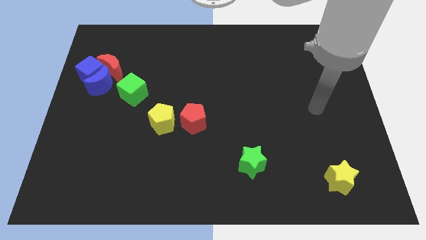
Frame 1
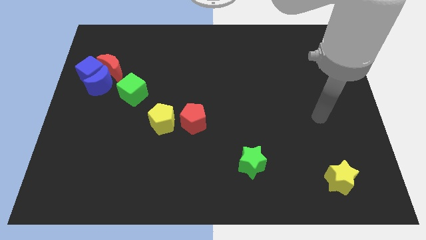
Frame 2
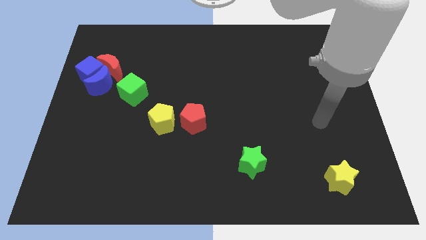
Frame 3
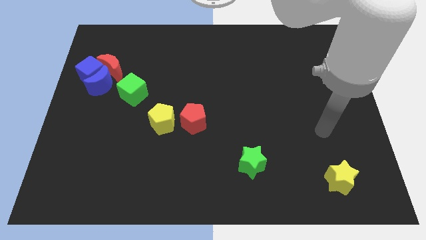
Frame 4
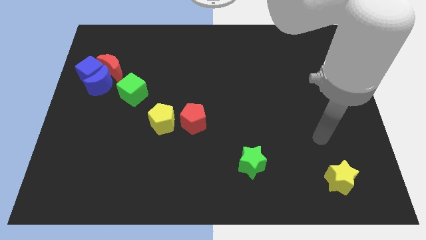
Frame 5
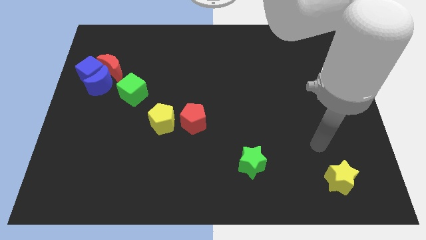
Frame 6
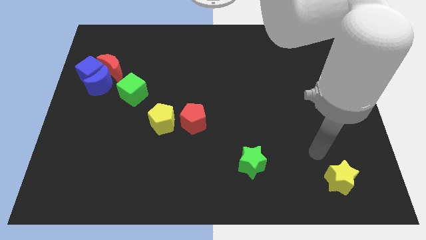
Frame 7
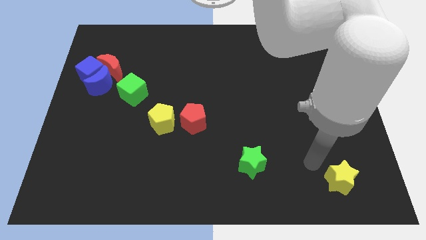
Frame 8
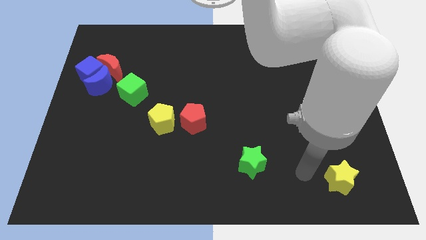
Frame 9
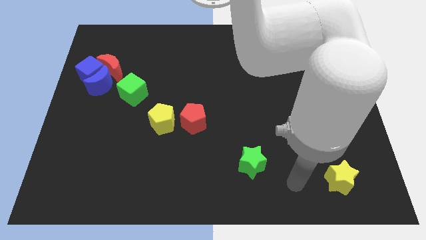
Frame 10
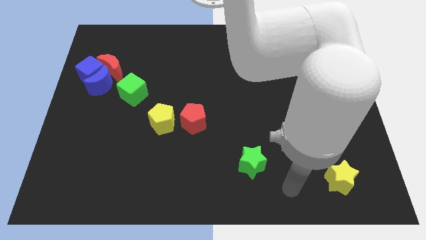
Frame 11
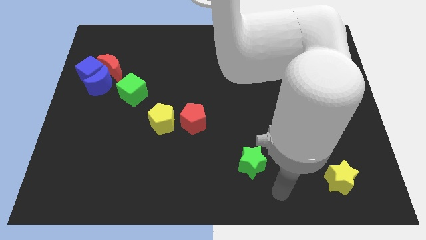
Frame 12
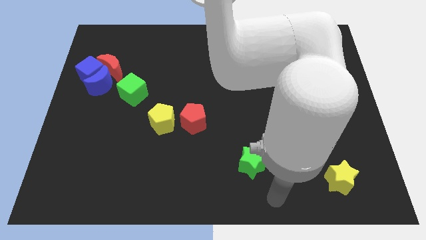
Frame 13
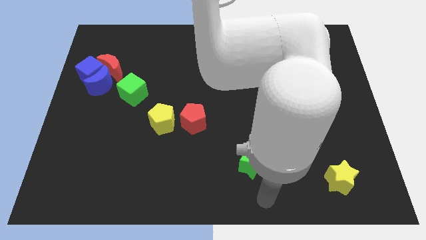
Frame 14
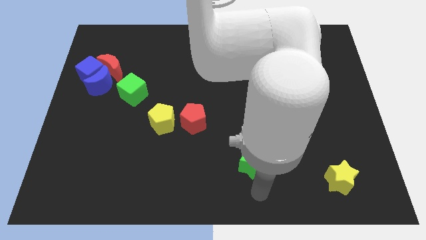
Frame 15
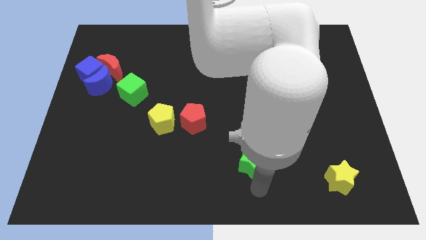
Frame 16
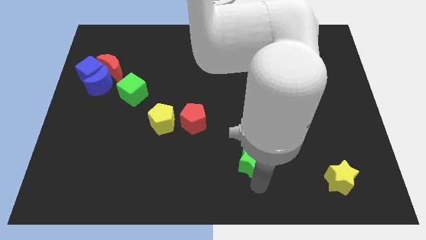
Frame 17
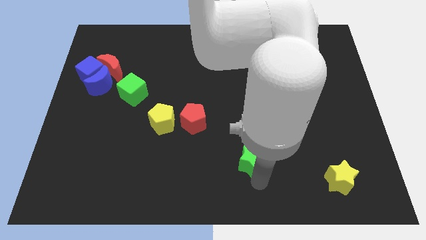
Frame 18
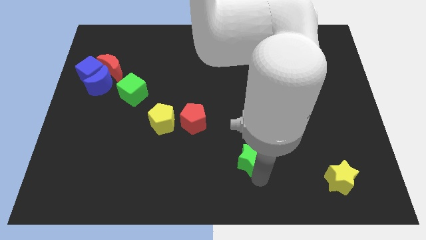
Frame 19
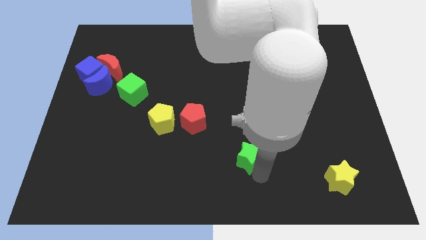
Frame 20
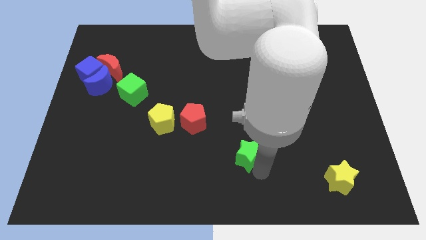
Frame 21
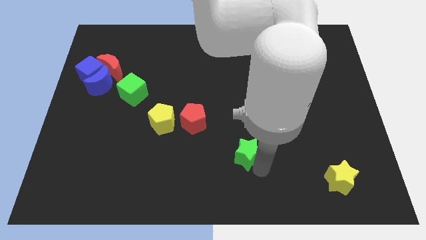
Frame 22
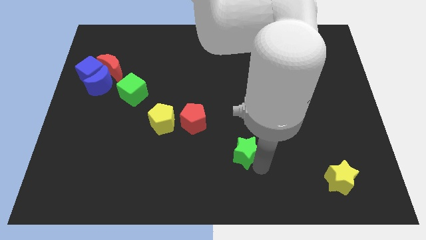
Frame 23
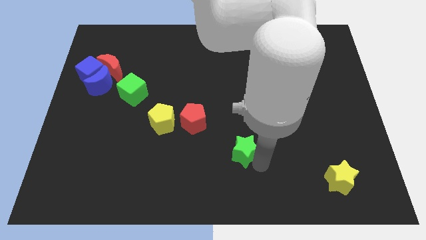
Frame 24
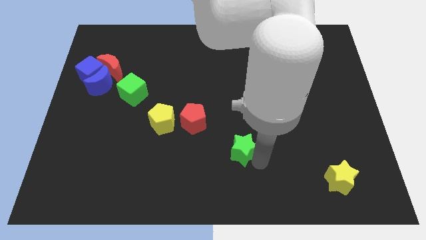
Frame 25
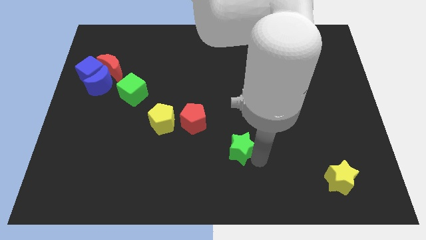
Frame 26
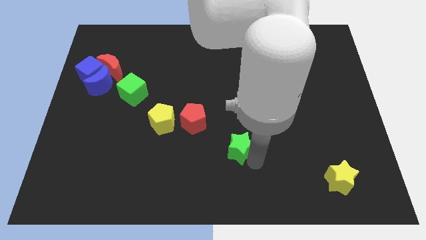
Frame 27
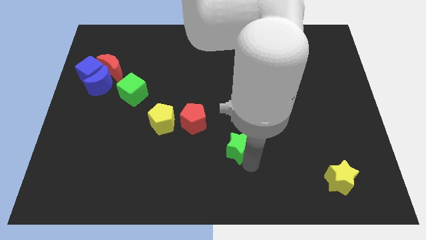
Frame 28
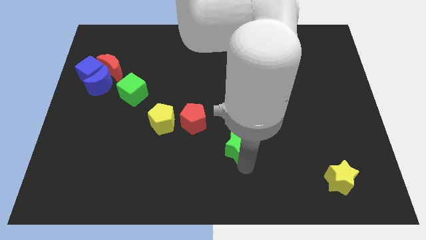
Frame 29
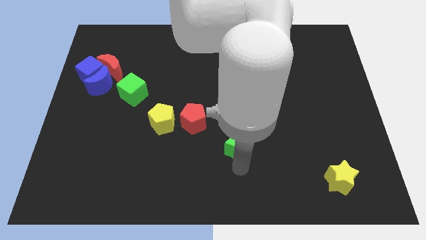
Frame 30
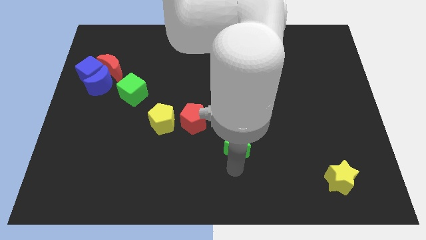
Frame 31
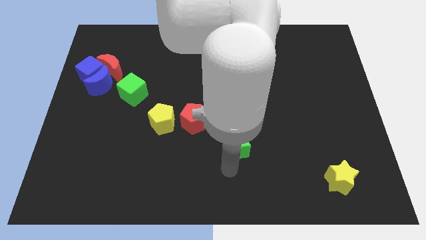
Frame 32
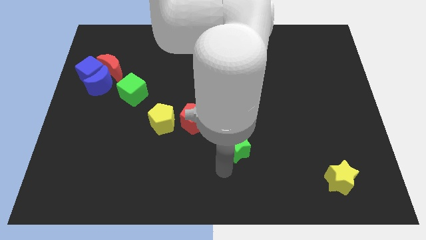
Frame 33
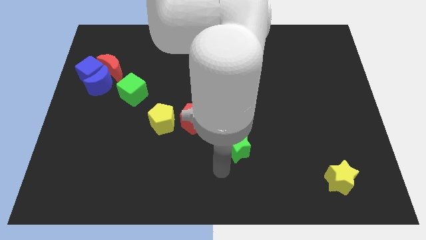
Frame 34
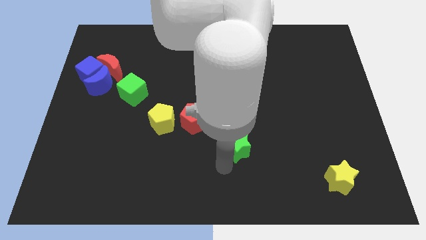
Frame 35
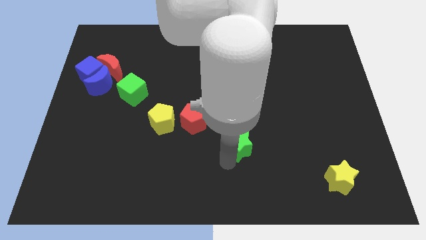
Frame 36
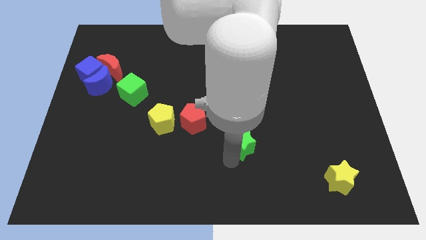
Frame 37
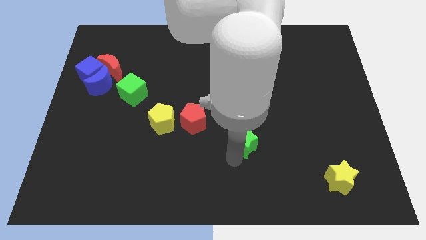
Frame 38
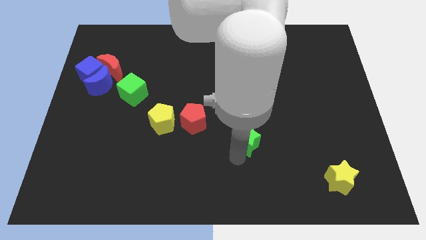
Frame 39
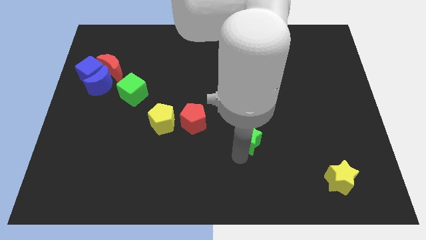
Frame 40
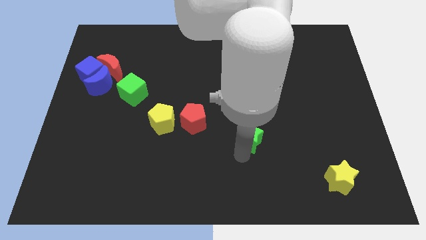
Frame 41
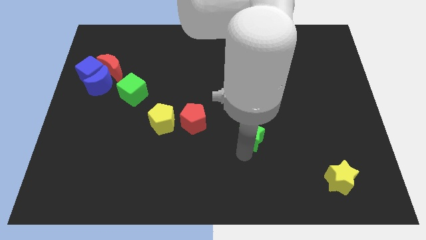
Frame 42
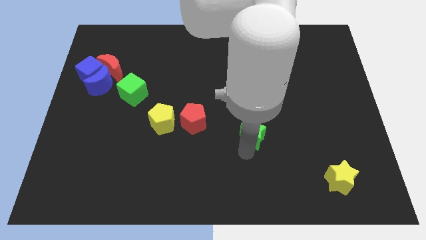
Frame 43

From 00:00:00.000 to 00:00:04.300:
move the green star up somewhat

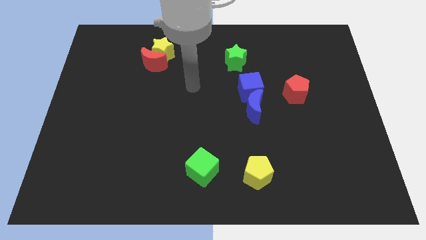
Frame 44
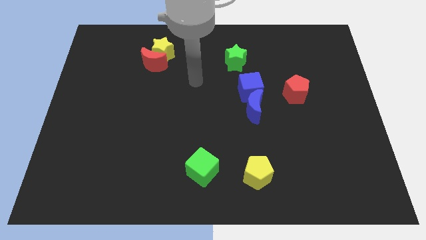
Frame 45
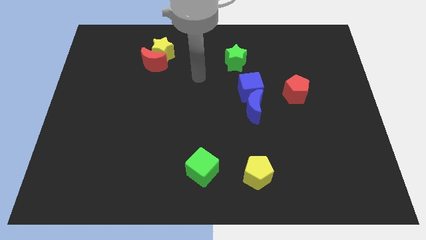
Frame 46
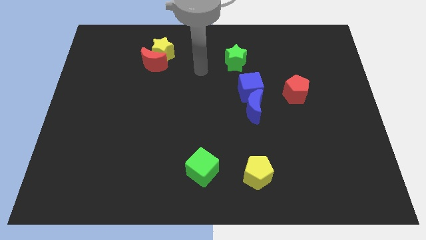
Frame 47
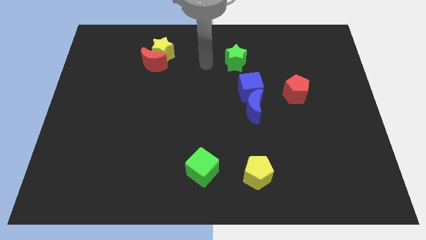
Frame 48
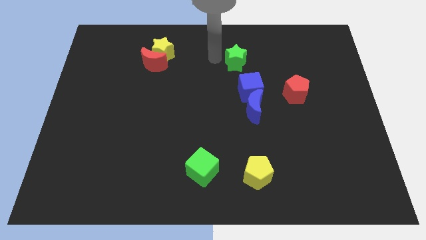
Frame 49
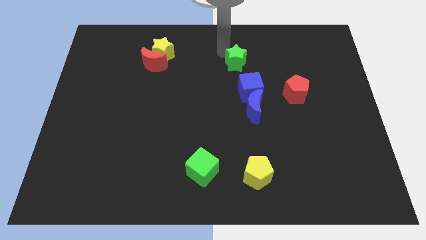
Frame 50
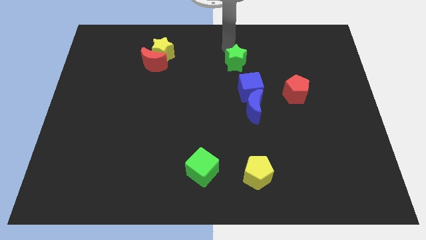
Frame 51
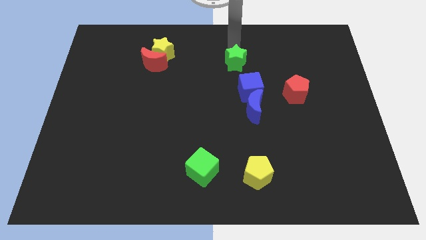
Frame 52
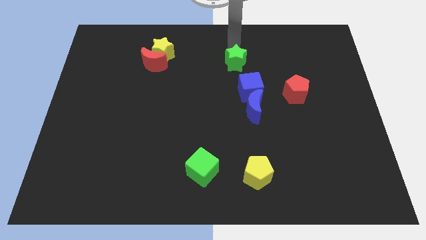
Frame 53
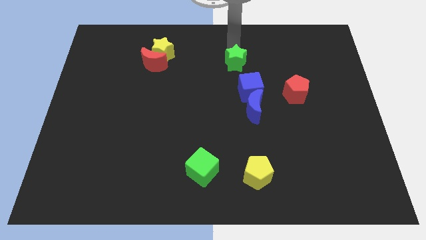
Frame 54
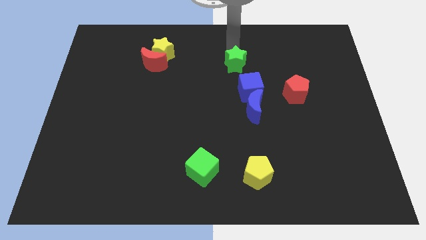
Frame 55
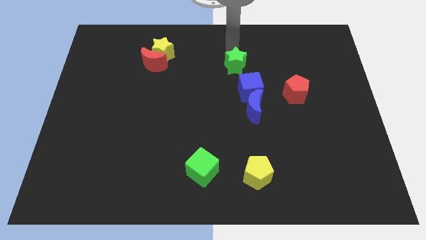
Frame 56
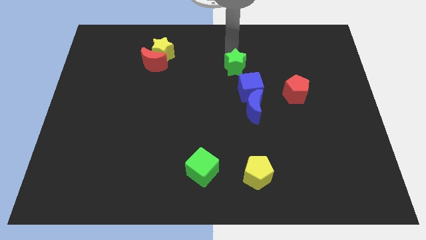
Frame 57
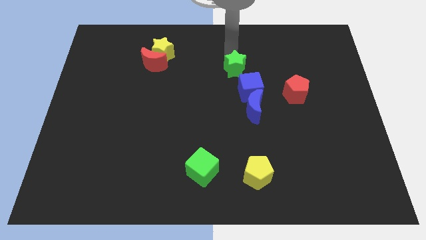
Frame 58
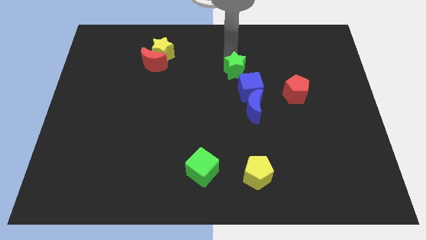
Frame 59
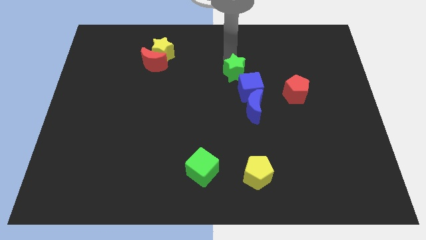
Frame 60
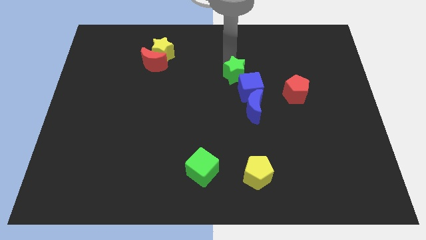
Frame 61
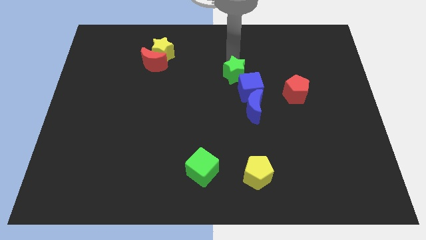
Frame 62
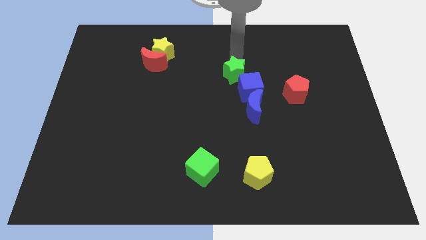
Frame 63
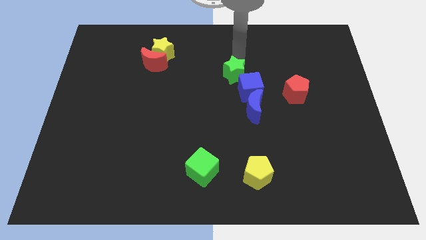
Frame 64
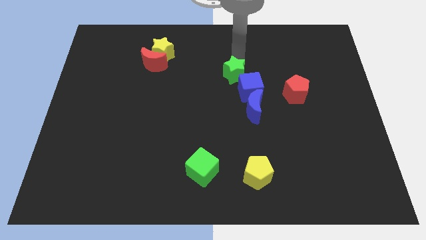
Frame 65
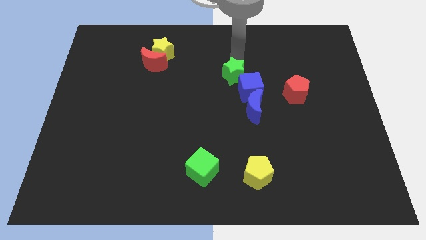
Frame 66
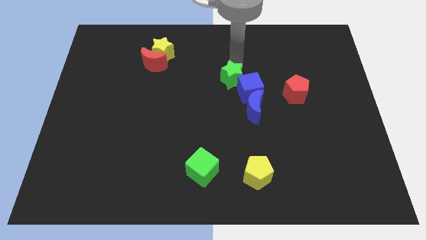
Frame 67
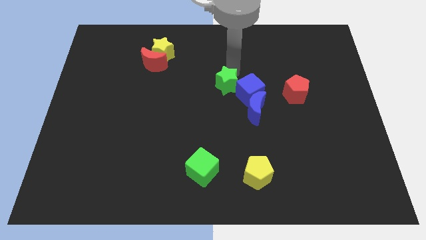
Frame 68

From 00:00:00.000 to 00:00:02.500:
slightly move the green star downwards

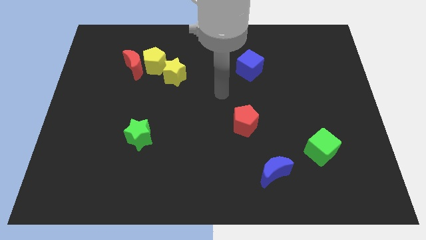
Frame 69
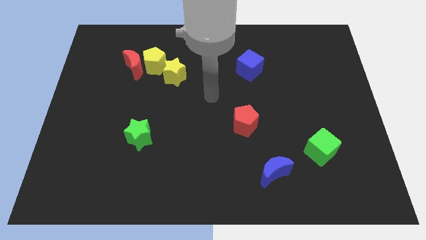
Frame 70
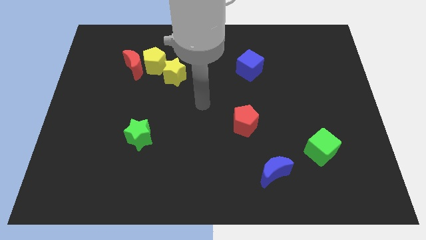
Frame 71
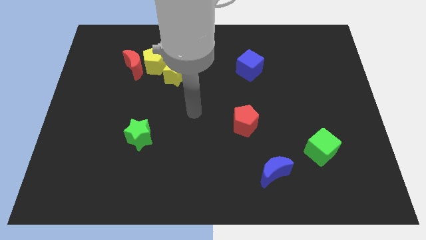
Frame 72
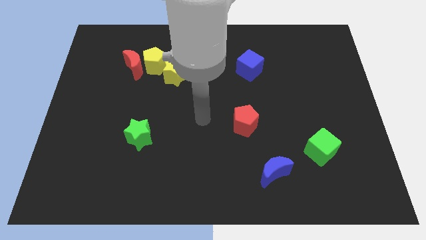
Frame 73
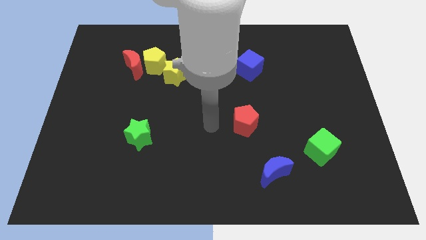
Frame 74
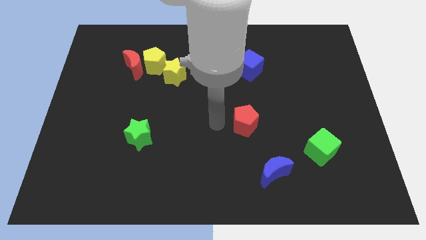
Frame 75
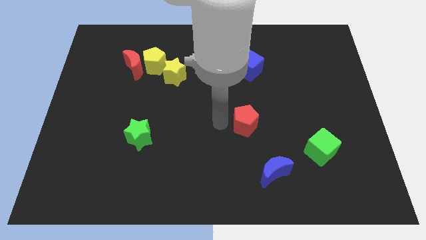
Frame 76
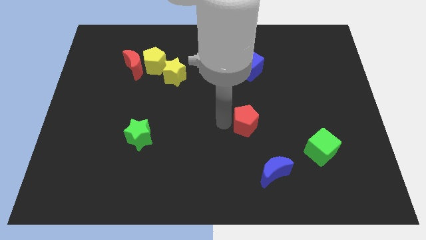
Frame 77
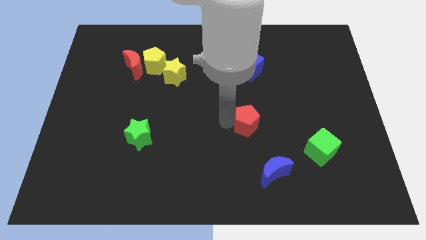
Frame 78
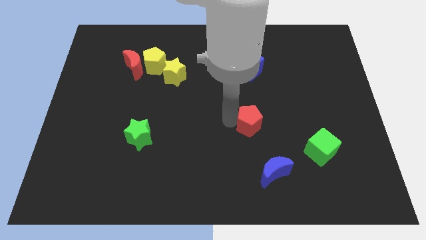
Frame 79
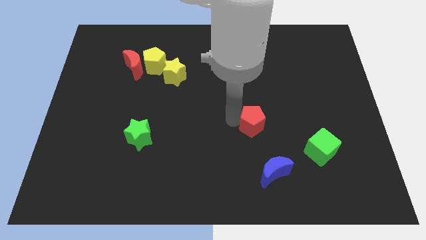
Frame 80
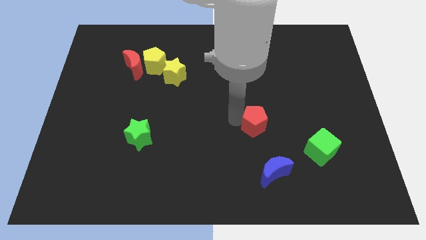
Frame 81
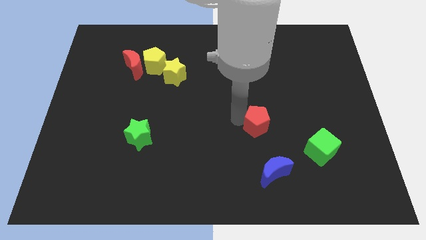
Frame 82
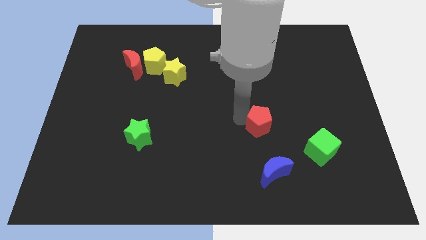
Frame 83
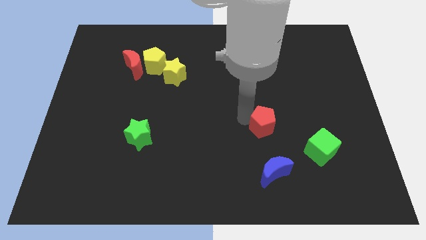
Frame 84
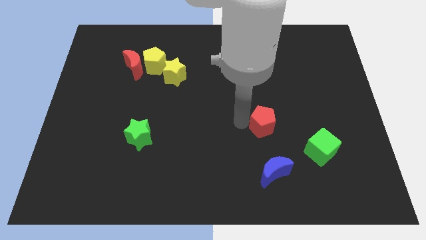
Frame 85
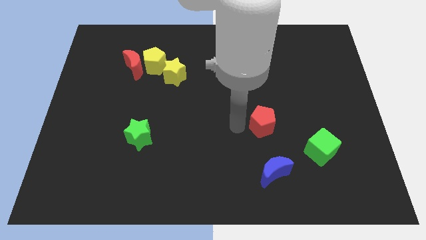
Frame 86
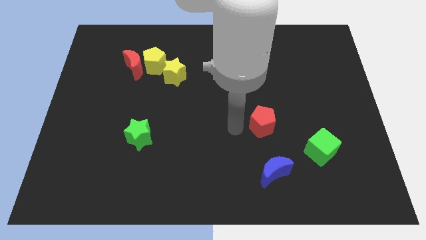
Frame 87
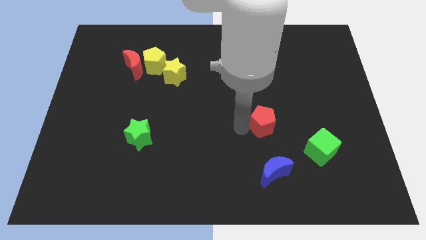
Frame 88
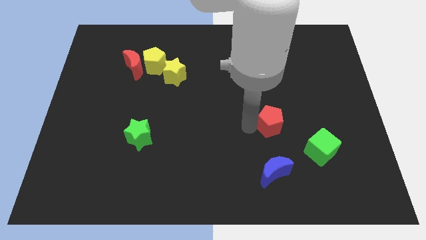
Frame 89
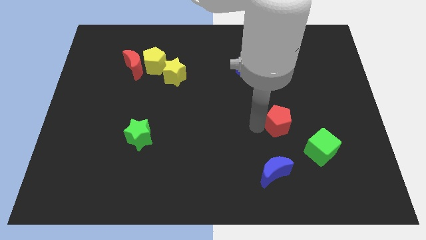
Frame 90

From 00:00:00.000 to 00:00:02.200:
push the red pentagon to the right a bit
